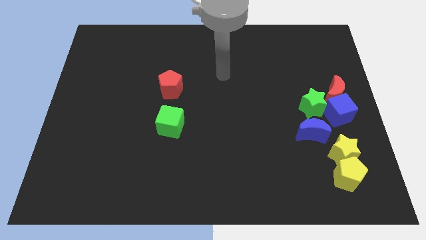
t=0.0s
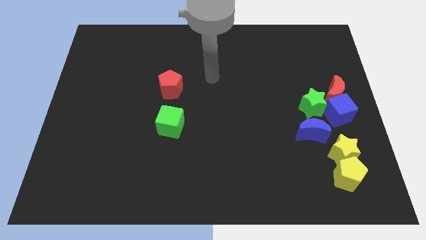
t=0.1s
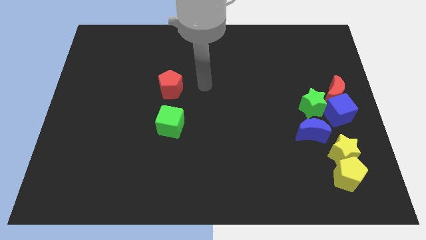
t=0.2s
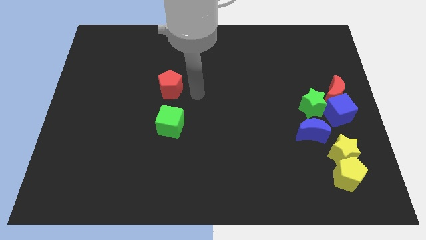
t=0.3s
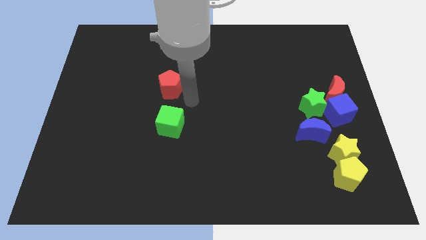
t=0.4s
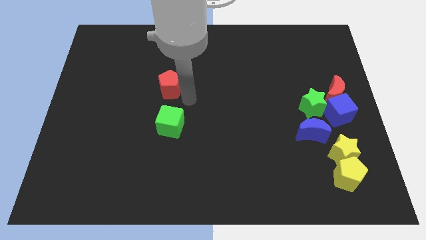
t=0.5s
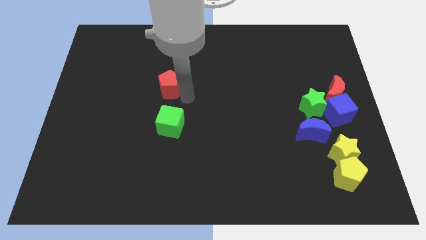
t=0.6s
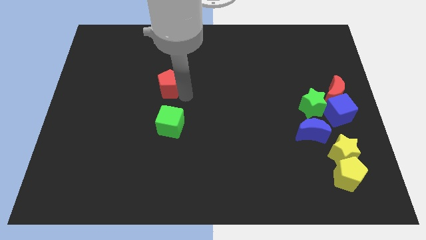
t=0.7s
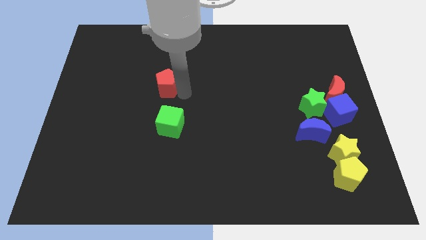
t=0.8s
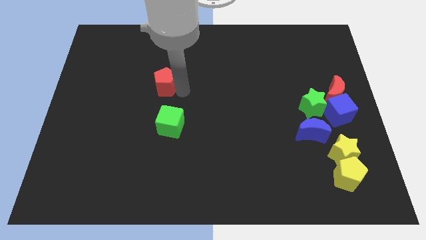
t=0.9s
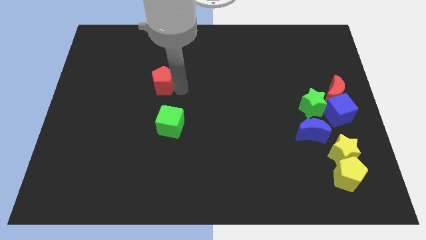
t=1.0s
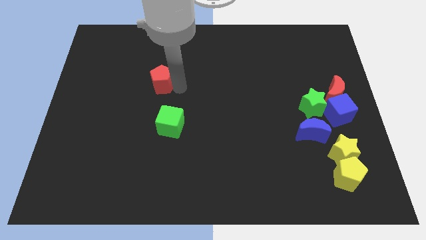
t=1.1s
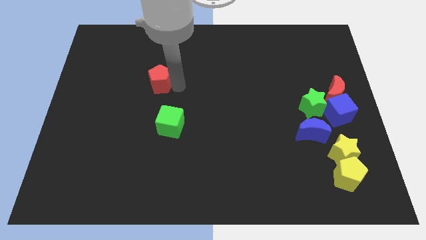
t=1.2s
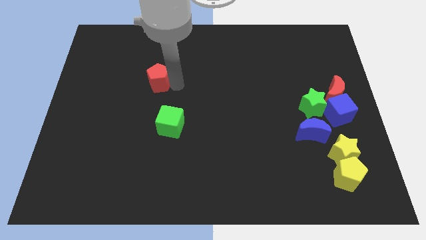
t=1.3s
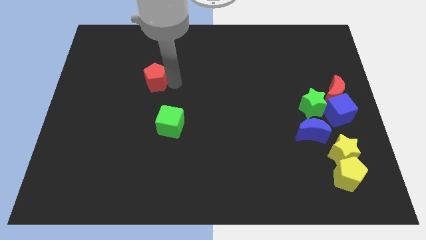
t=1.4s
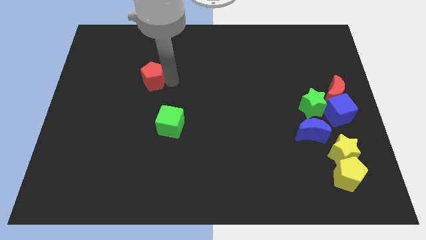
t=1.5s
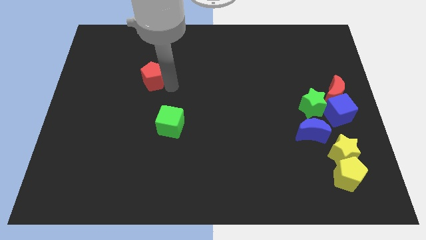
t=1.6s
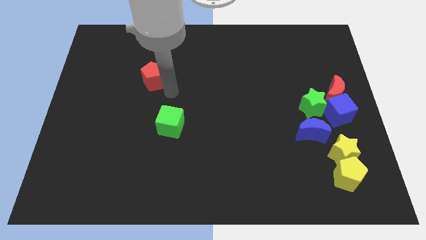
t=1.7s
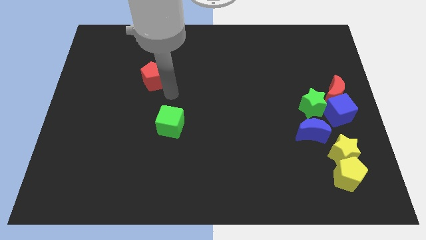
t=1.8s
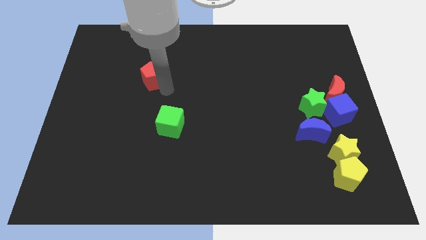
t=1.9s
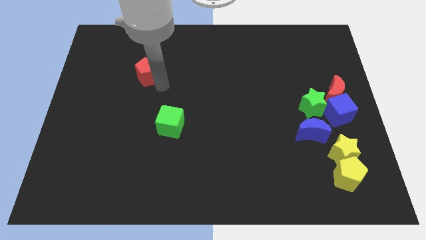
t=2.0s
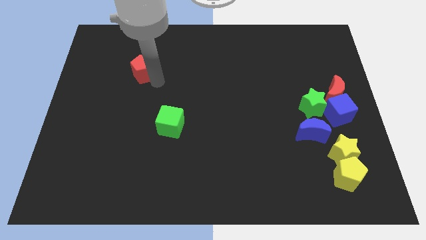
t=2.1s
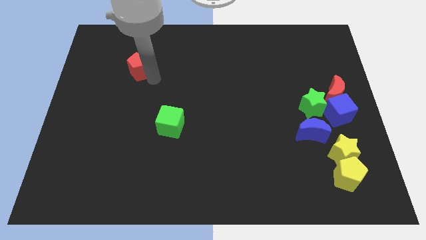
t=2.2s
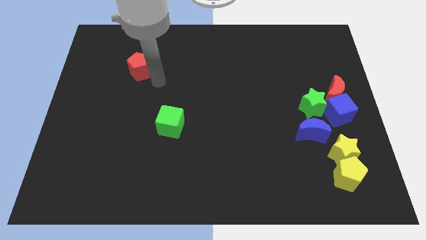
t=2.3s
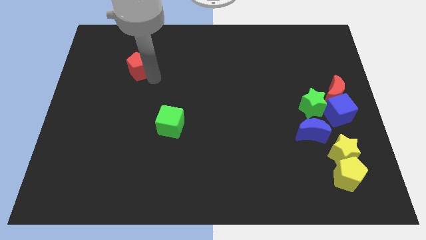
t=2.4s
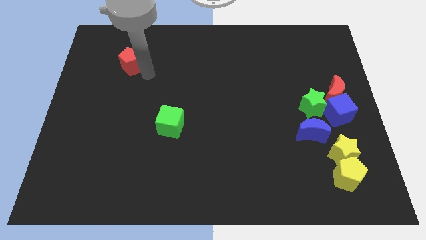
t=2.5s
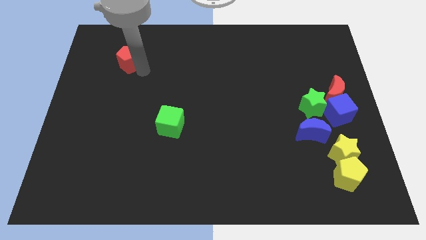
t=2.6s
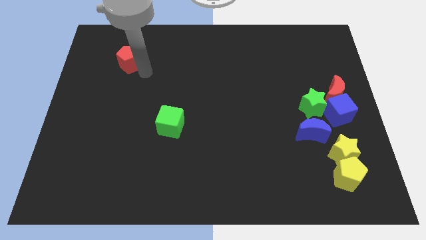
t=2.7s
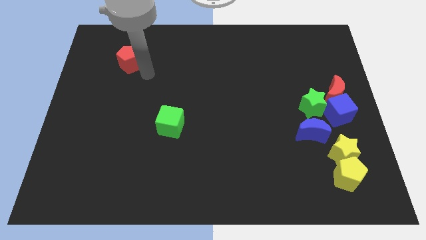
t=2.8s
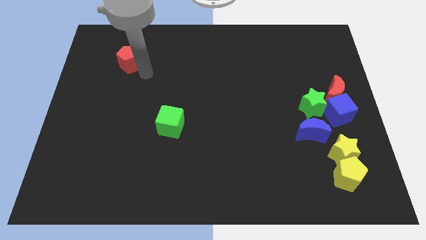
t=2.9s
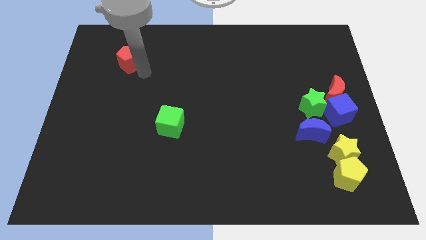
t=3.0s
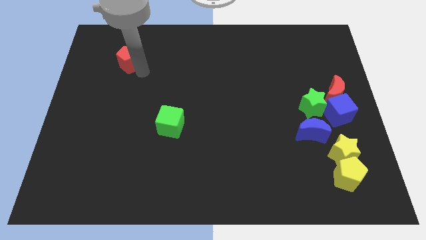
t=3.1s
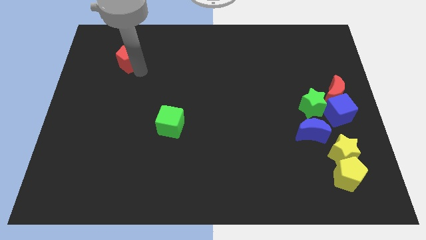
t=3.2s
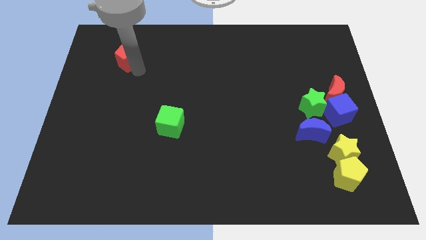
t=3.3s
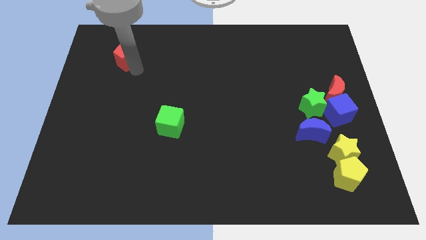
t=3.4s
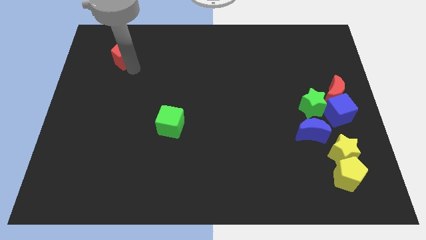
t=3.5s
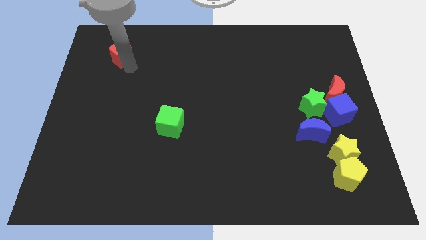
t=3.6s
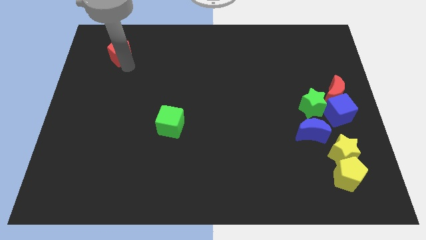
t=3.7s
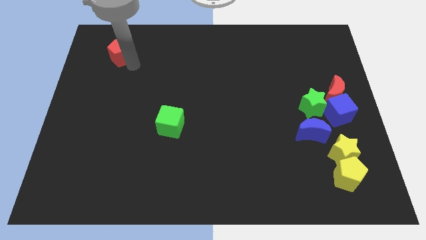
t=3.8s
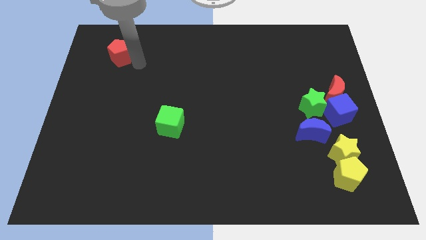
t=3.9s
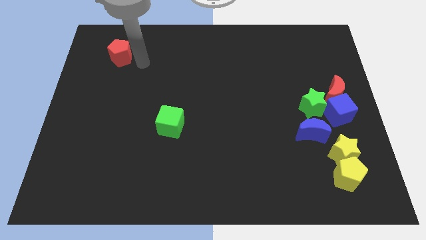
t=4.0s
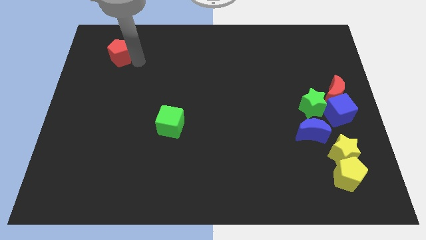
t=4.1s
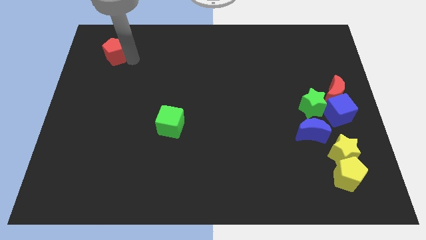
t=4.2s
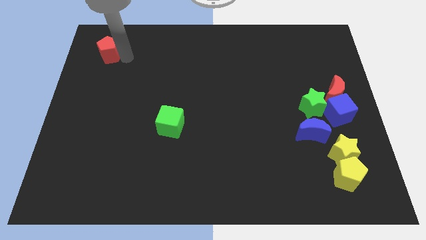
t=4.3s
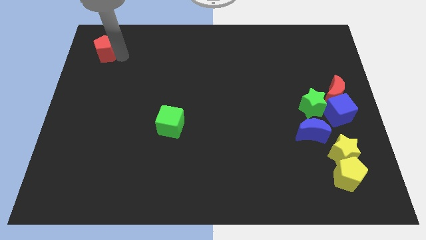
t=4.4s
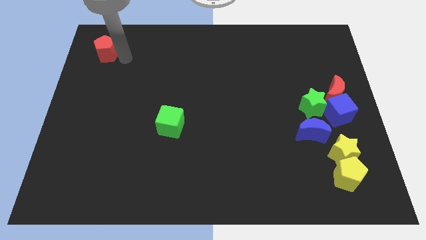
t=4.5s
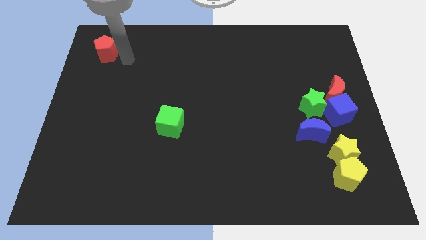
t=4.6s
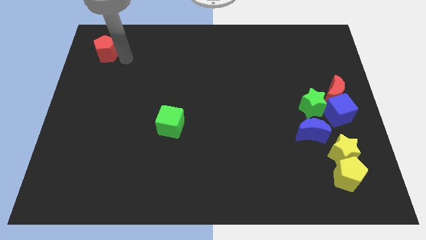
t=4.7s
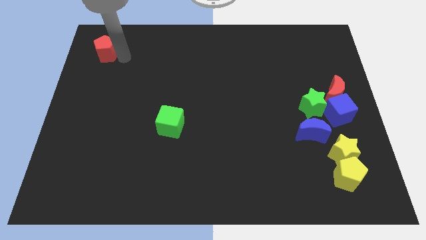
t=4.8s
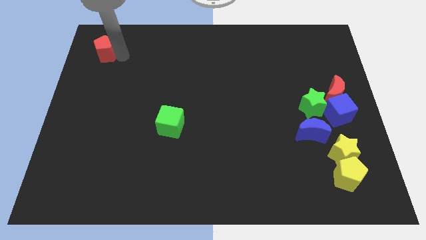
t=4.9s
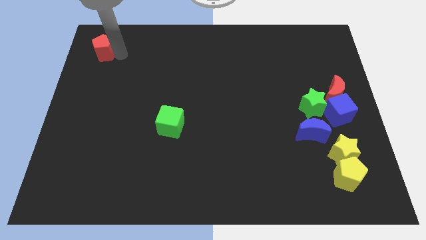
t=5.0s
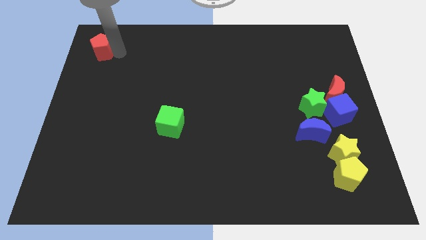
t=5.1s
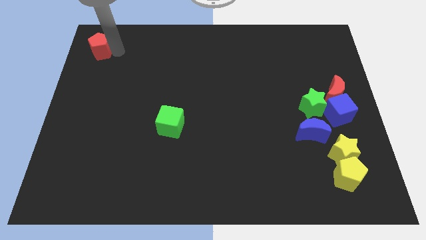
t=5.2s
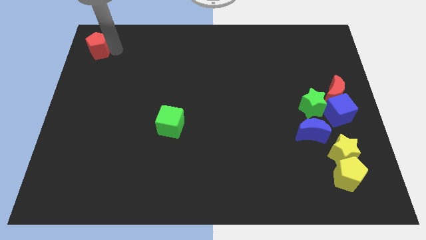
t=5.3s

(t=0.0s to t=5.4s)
move the red pentagon to the top left of the board
